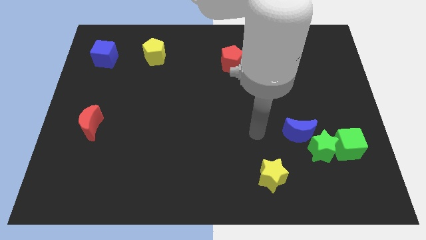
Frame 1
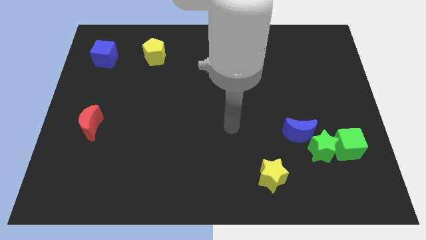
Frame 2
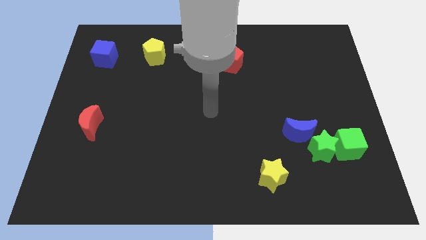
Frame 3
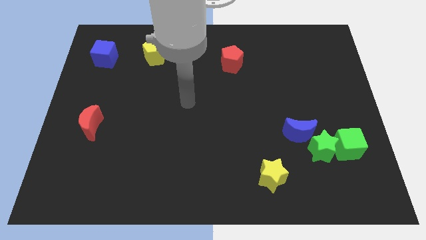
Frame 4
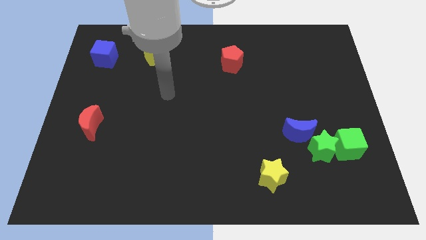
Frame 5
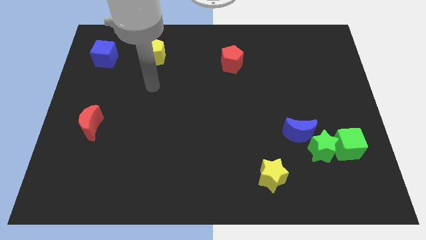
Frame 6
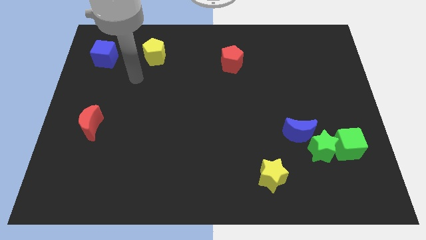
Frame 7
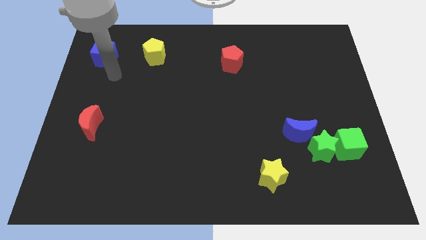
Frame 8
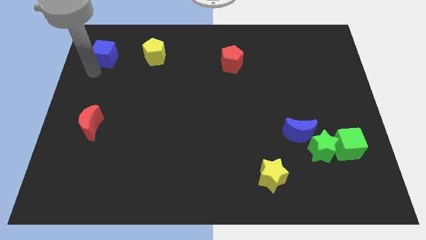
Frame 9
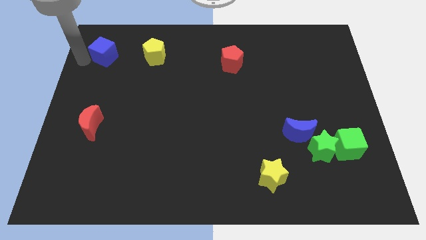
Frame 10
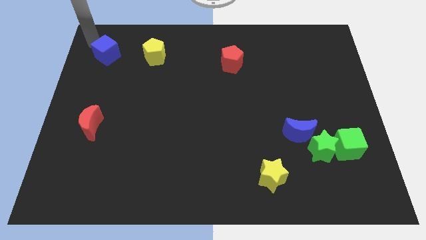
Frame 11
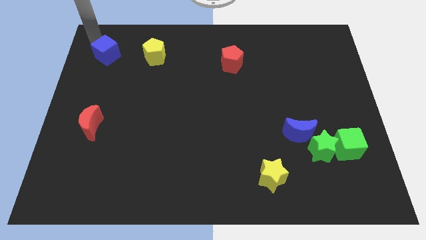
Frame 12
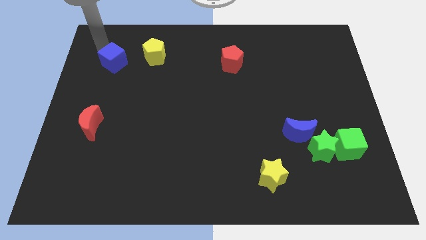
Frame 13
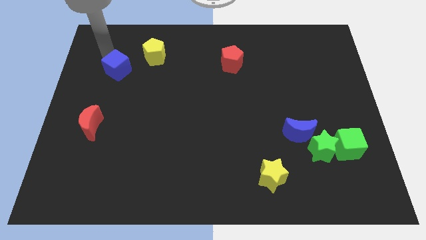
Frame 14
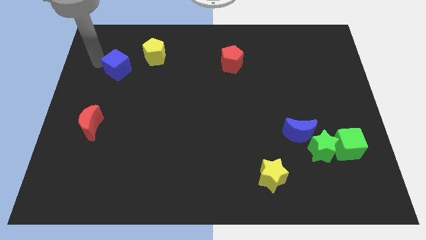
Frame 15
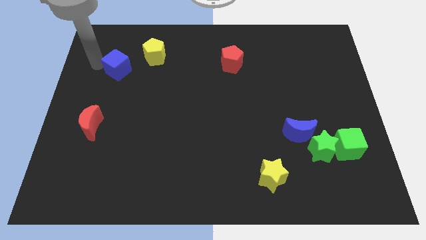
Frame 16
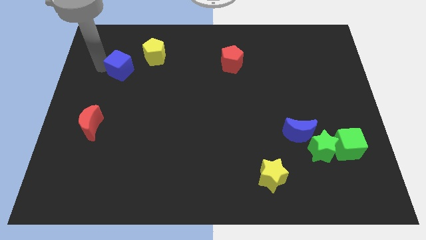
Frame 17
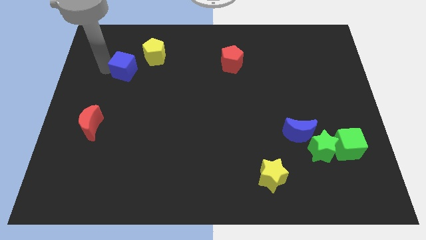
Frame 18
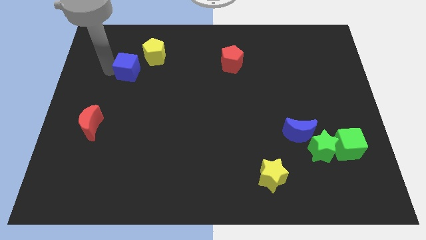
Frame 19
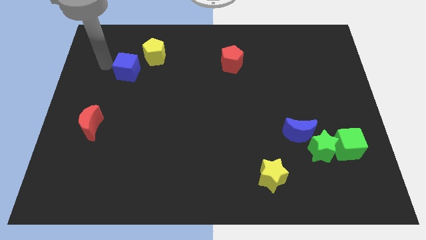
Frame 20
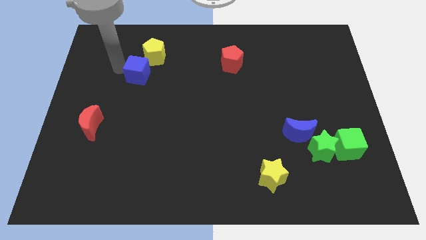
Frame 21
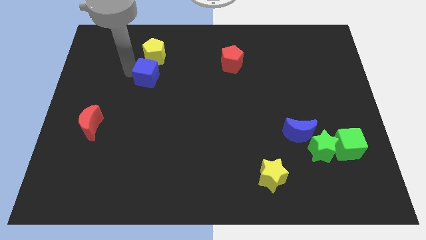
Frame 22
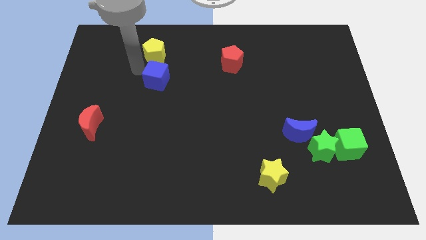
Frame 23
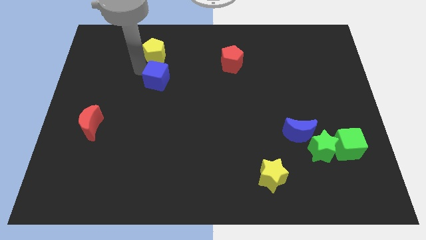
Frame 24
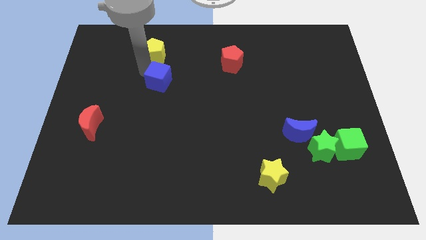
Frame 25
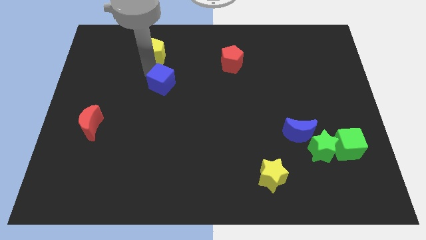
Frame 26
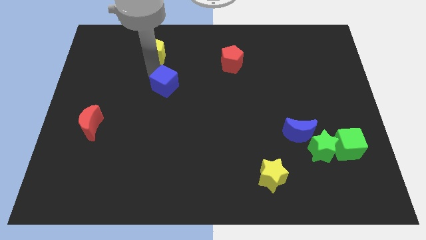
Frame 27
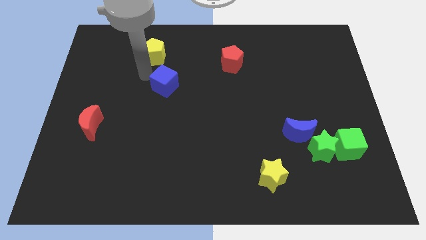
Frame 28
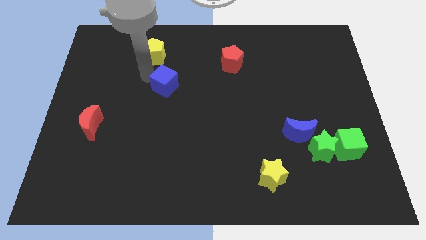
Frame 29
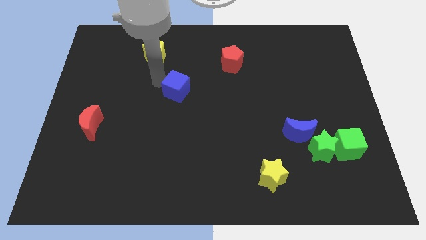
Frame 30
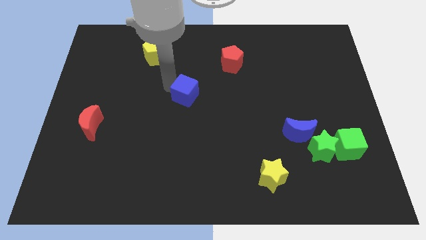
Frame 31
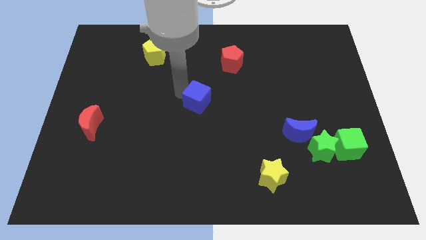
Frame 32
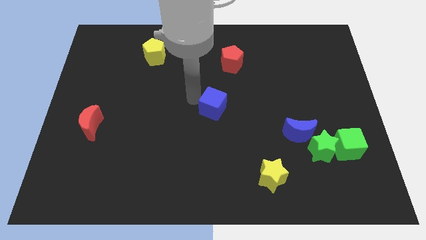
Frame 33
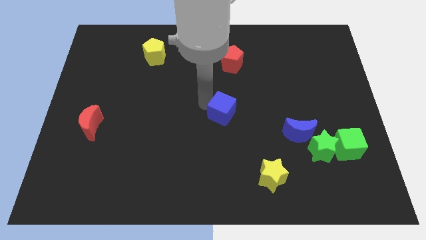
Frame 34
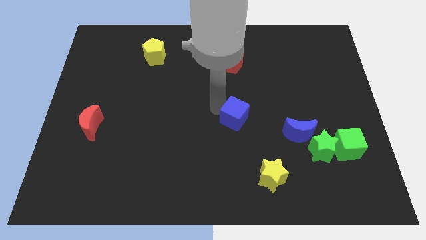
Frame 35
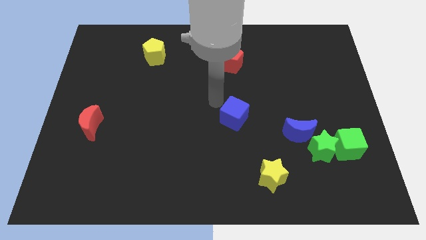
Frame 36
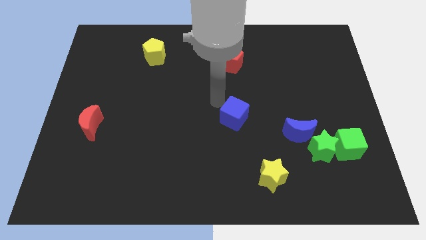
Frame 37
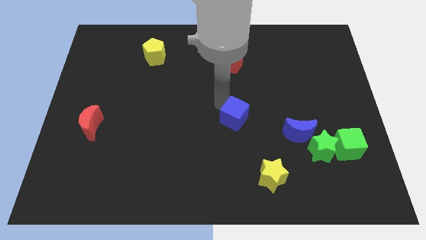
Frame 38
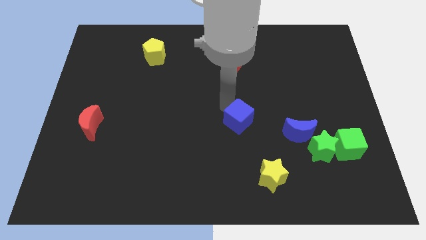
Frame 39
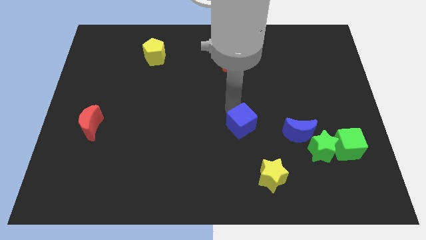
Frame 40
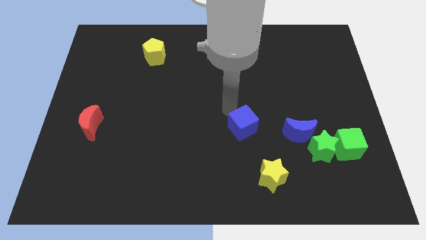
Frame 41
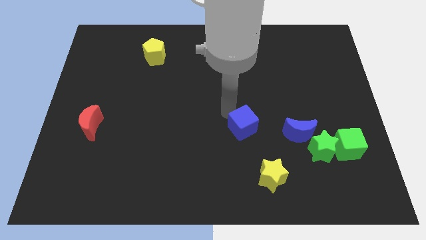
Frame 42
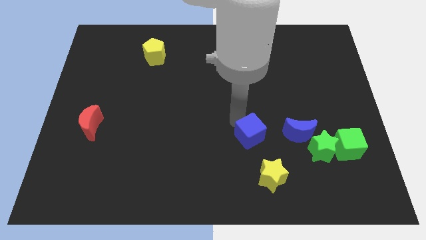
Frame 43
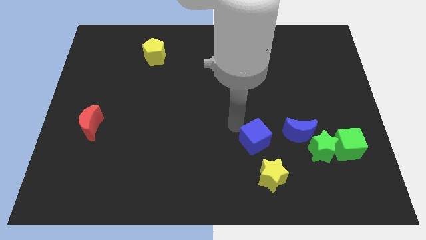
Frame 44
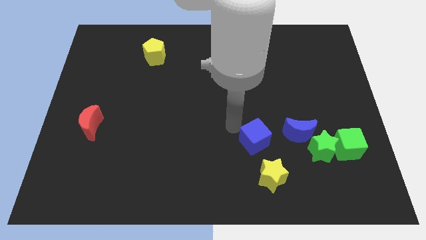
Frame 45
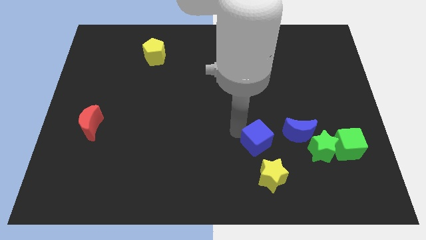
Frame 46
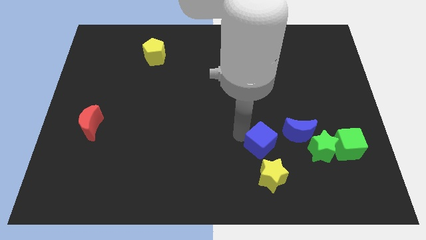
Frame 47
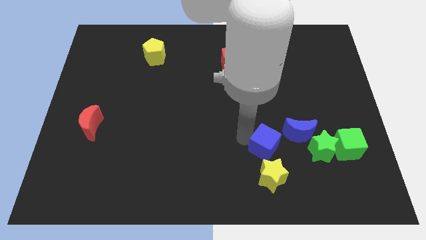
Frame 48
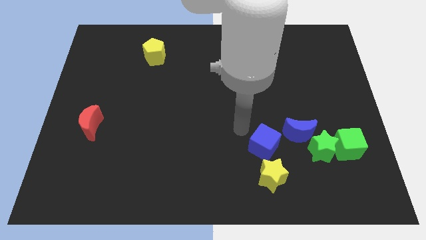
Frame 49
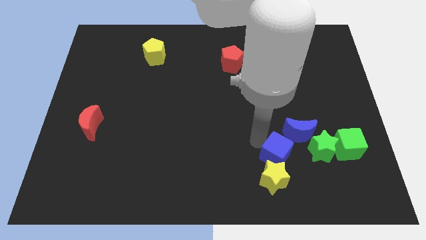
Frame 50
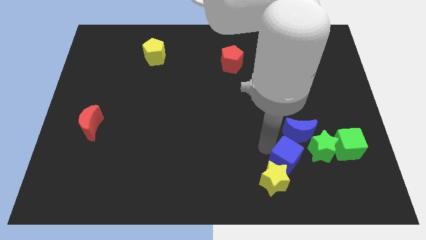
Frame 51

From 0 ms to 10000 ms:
move the blue cube to the bottom of the blue moon

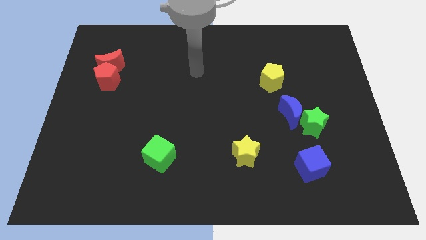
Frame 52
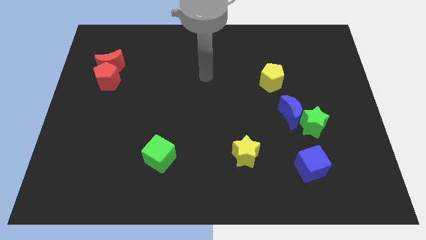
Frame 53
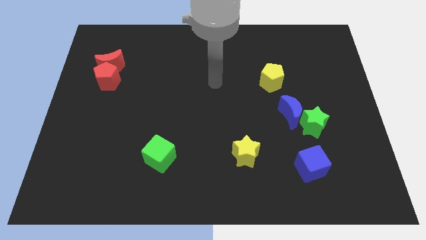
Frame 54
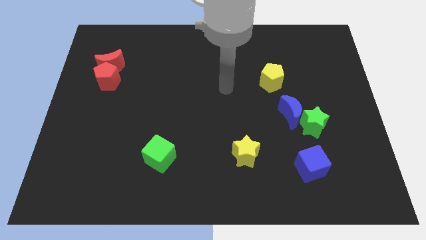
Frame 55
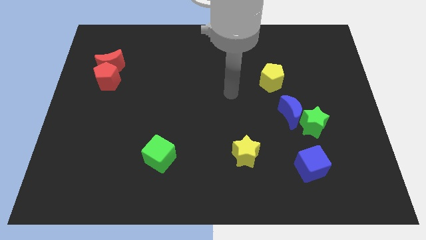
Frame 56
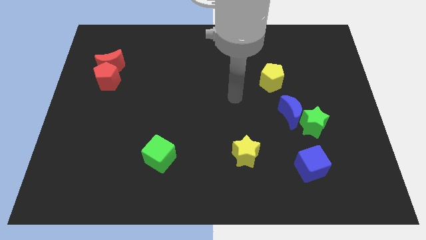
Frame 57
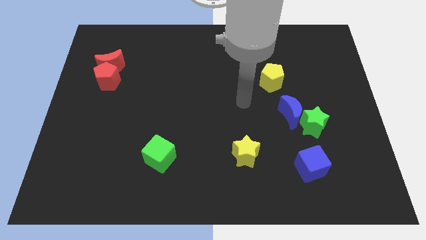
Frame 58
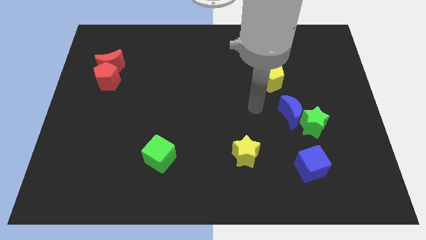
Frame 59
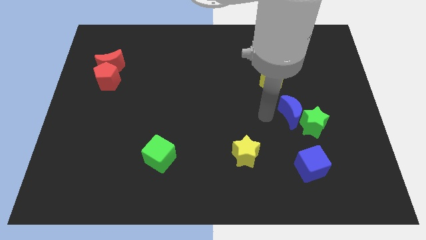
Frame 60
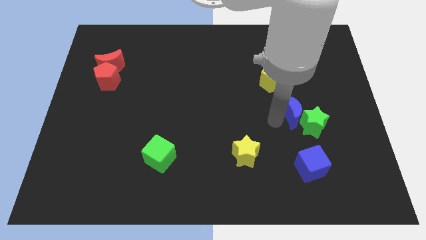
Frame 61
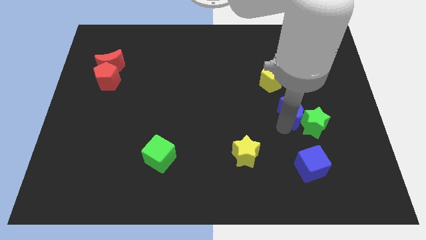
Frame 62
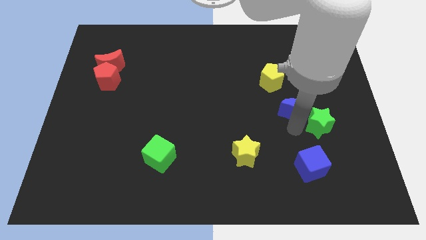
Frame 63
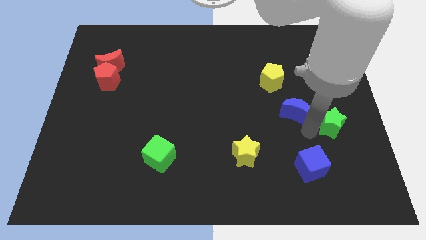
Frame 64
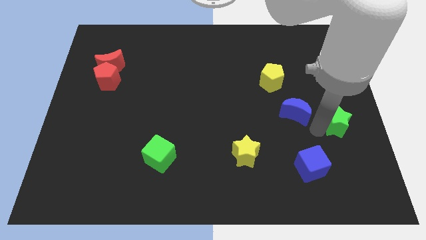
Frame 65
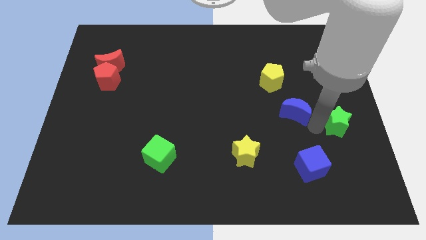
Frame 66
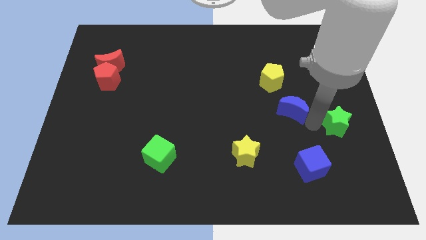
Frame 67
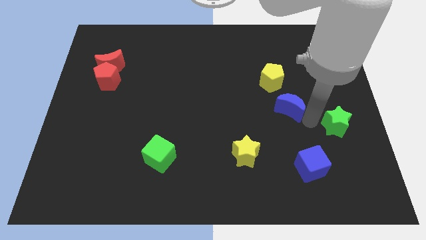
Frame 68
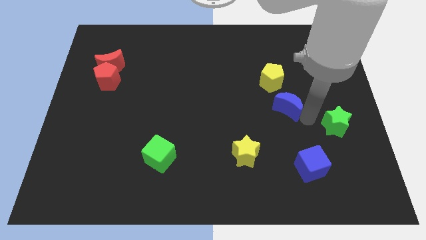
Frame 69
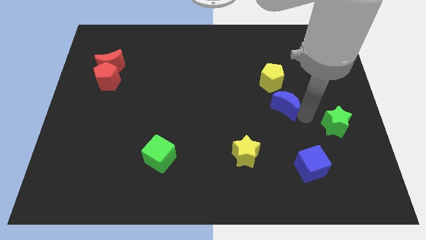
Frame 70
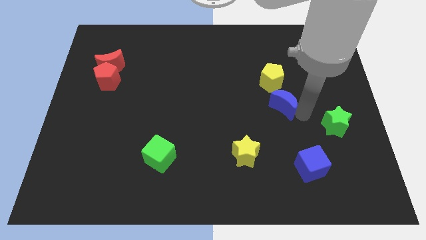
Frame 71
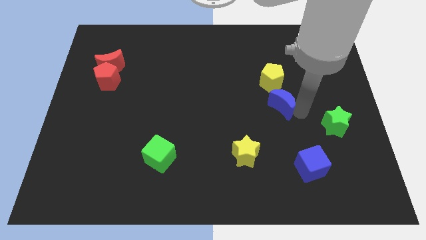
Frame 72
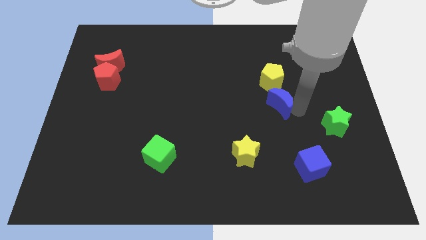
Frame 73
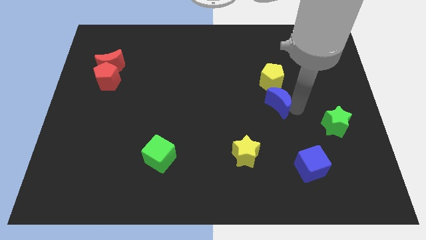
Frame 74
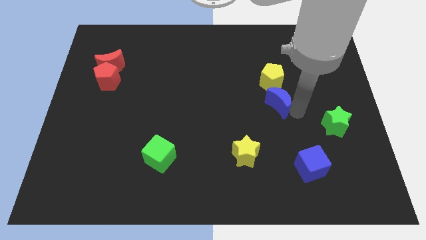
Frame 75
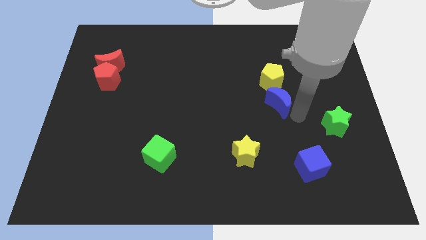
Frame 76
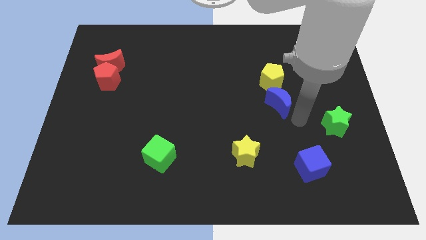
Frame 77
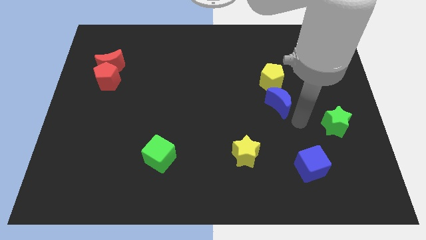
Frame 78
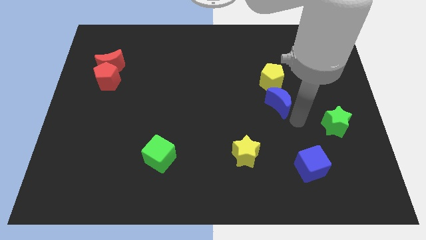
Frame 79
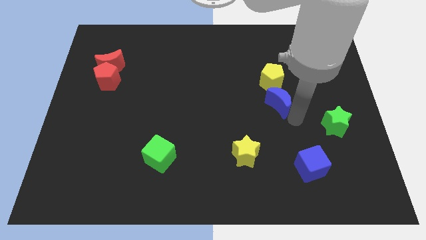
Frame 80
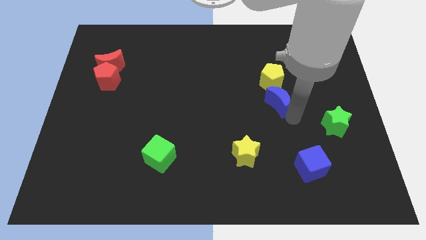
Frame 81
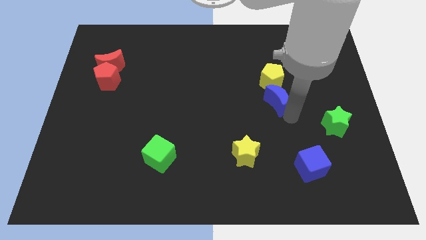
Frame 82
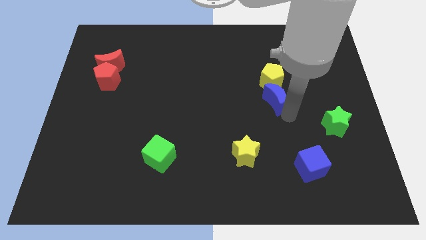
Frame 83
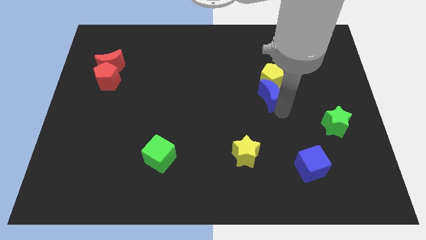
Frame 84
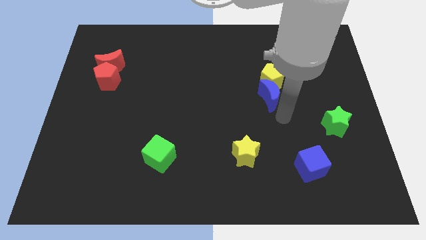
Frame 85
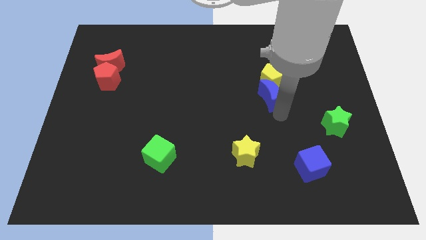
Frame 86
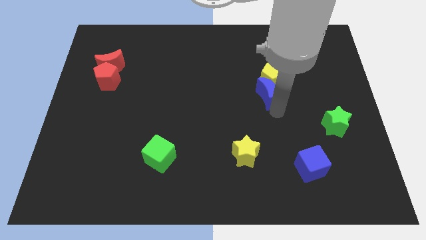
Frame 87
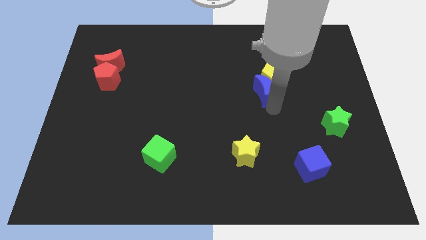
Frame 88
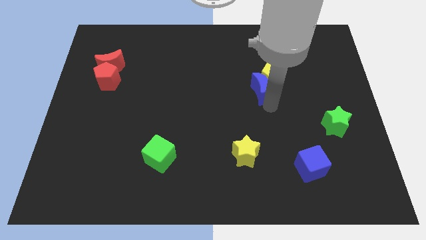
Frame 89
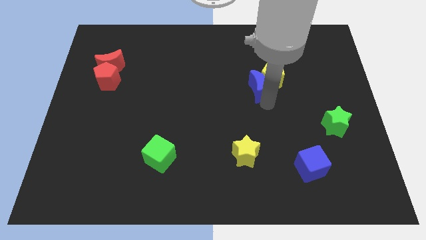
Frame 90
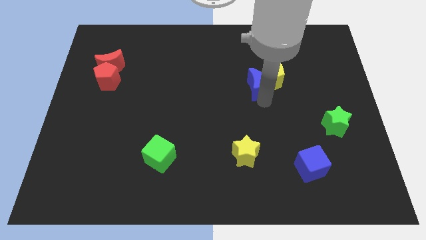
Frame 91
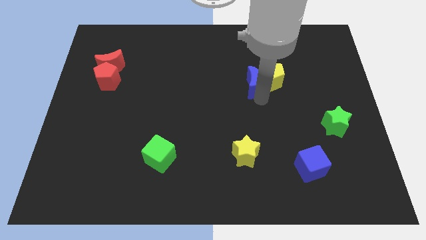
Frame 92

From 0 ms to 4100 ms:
slide the blue moon diagonally up and to the left of the yellow pentagon
